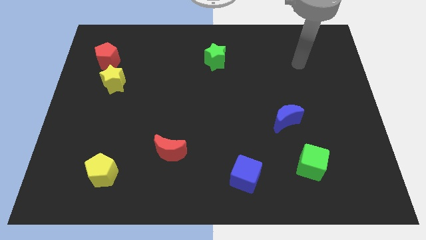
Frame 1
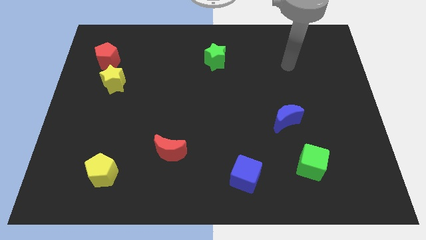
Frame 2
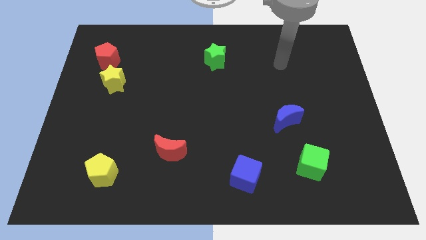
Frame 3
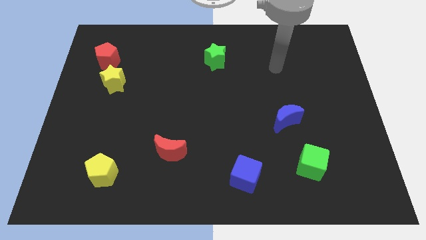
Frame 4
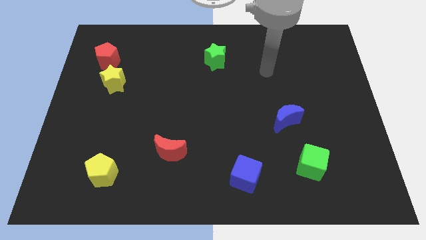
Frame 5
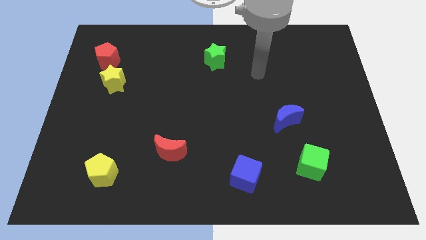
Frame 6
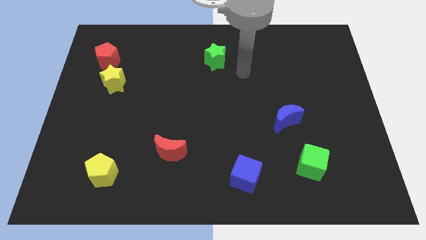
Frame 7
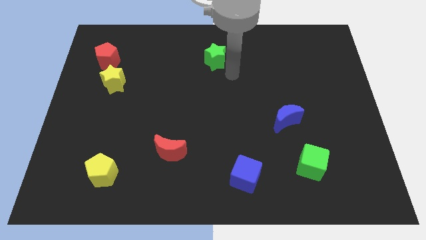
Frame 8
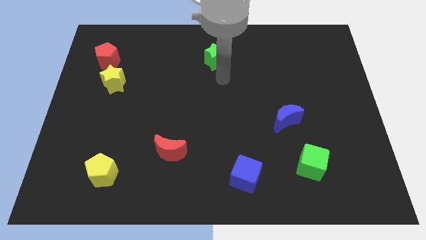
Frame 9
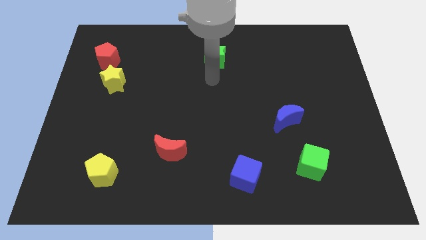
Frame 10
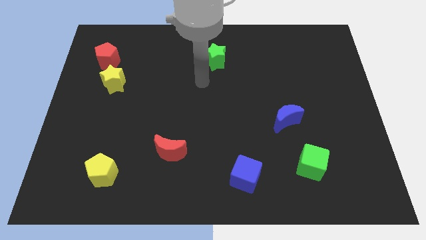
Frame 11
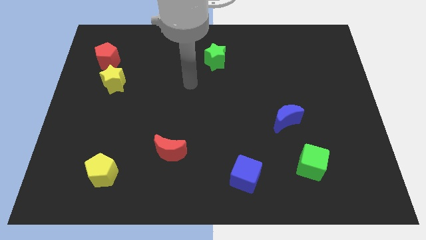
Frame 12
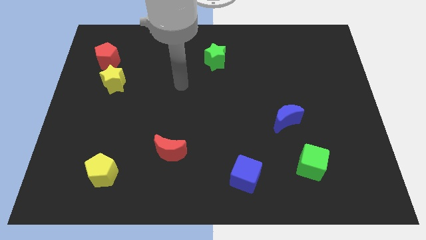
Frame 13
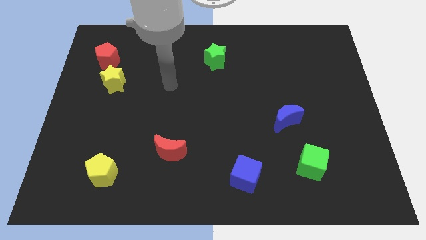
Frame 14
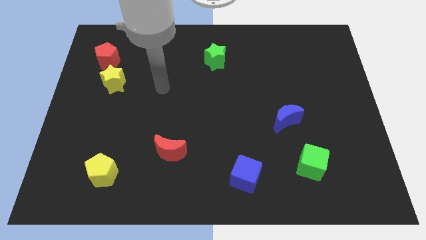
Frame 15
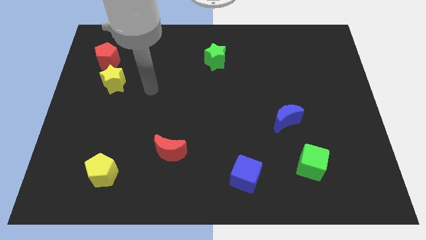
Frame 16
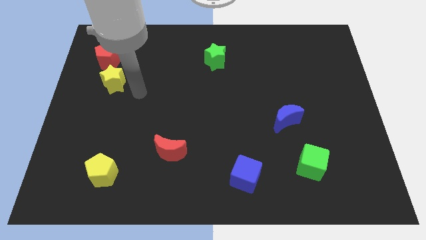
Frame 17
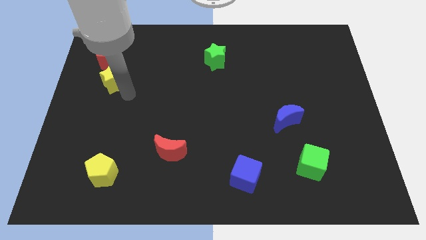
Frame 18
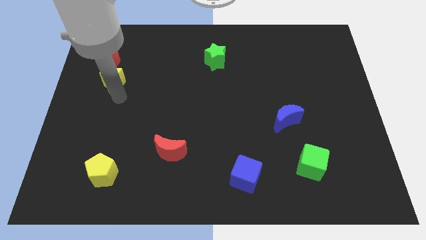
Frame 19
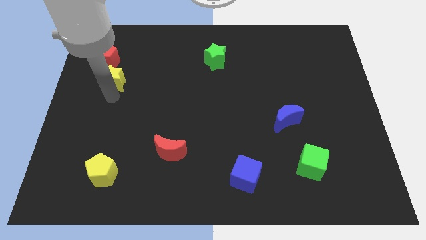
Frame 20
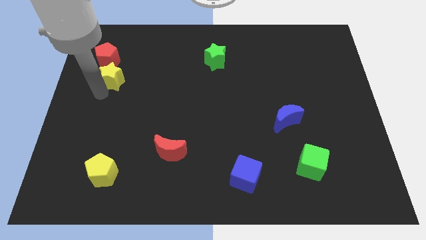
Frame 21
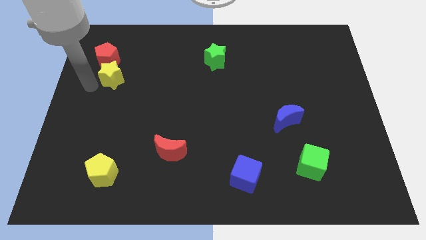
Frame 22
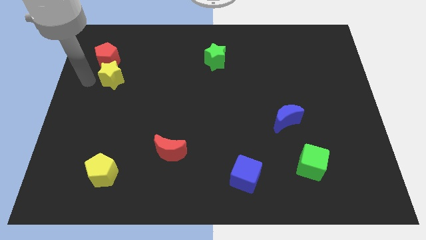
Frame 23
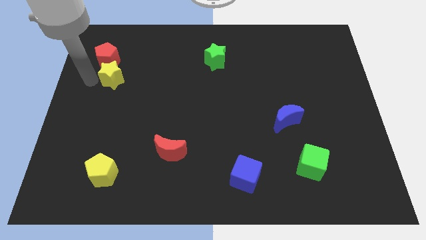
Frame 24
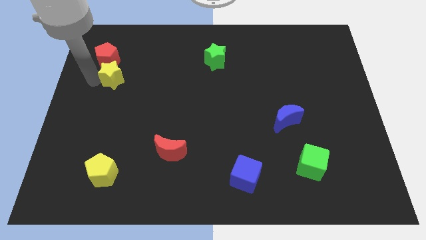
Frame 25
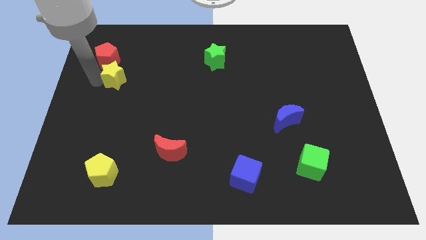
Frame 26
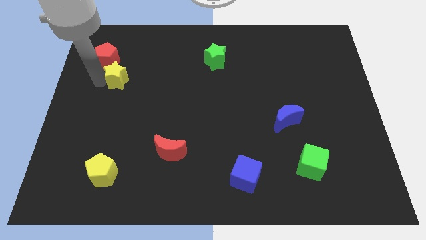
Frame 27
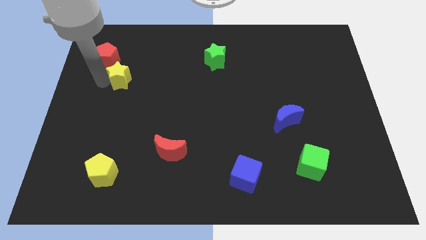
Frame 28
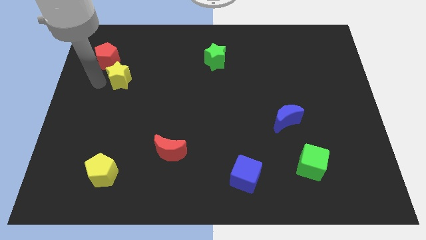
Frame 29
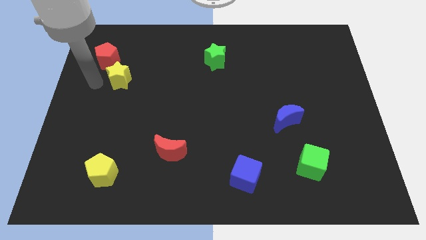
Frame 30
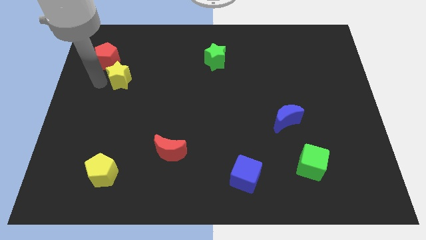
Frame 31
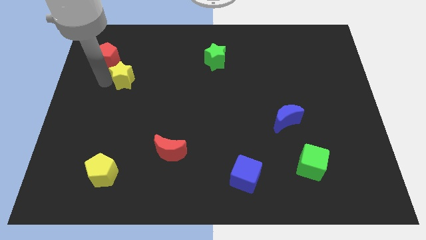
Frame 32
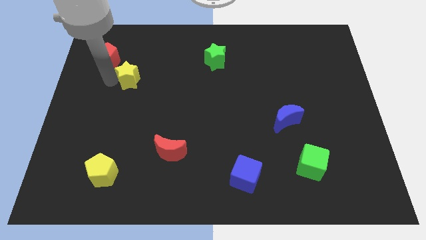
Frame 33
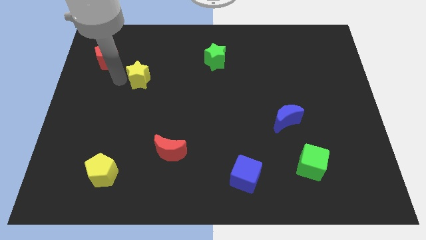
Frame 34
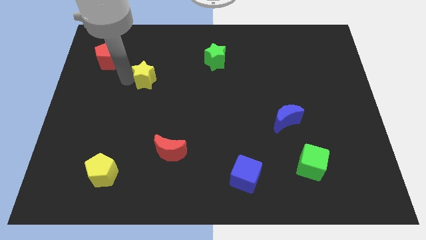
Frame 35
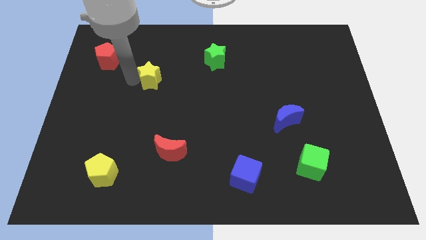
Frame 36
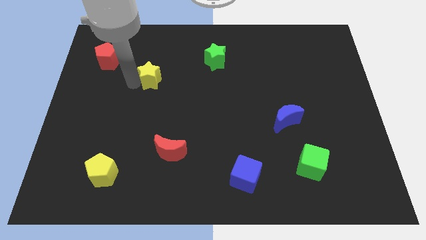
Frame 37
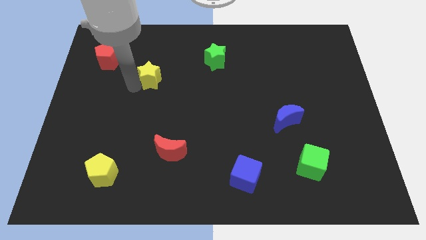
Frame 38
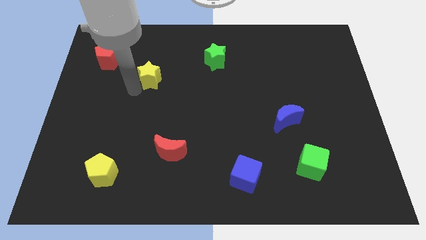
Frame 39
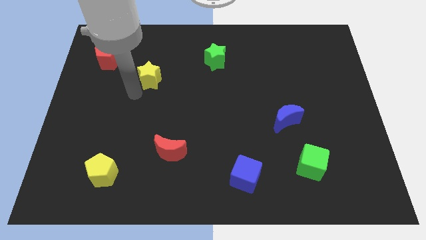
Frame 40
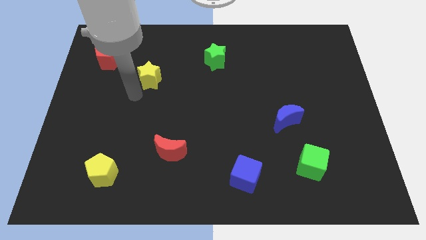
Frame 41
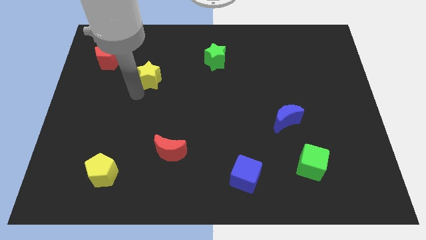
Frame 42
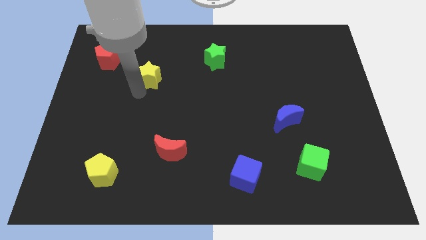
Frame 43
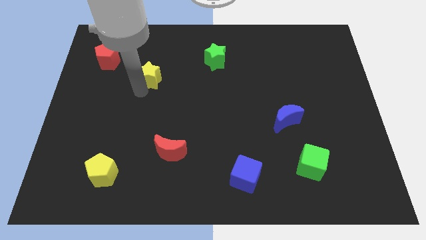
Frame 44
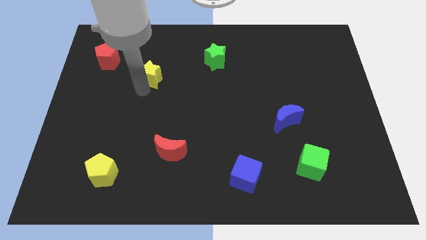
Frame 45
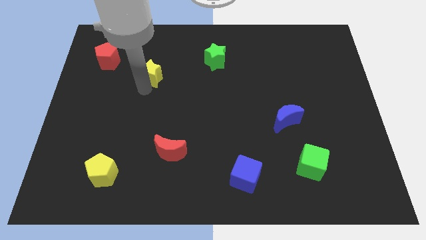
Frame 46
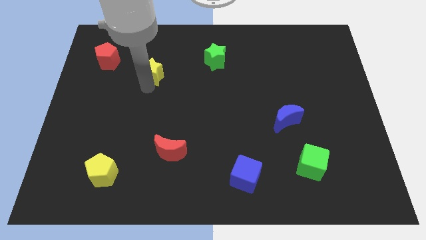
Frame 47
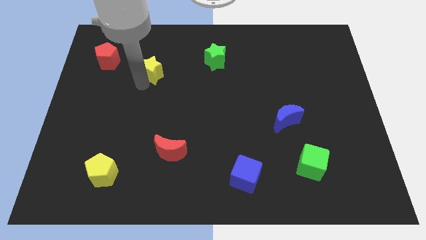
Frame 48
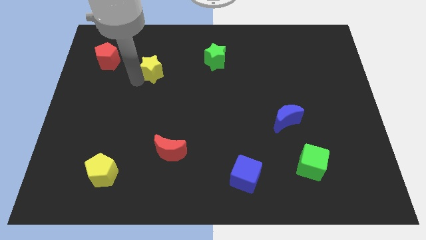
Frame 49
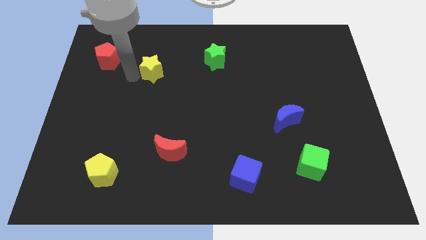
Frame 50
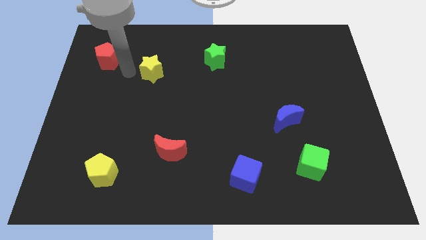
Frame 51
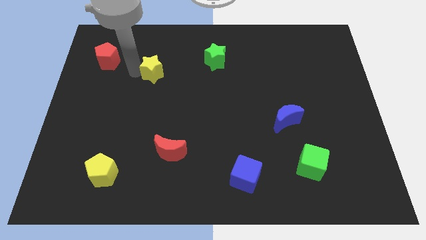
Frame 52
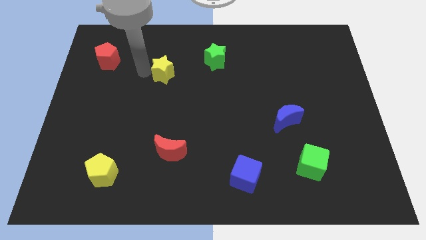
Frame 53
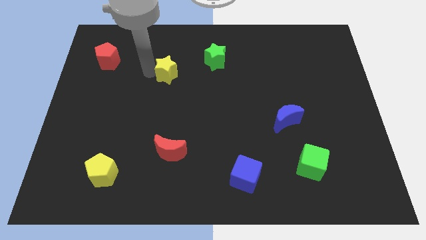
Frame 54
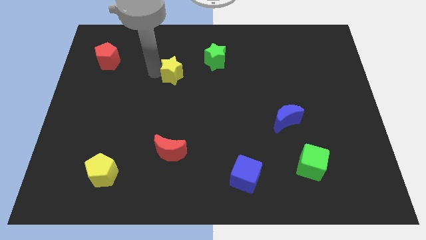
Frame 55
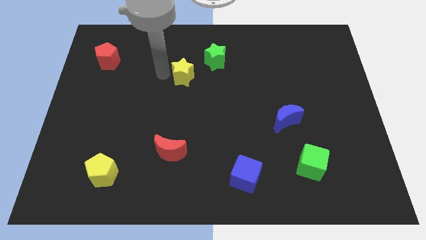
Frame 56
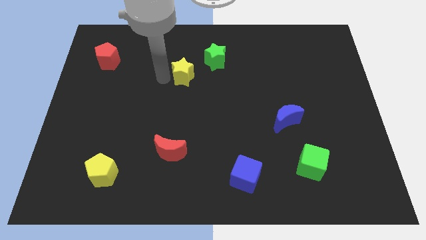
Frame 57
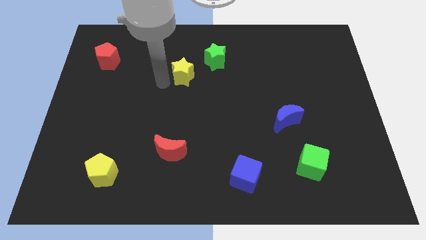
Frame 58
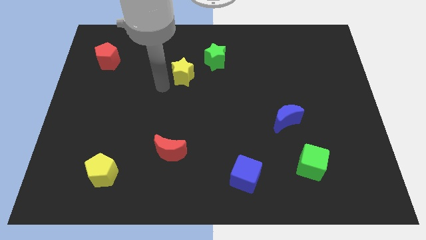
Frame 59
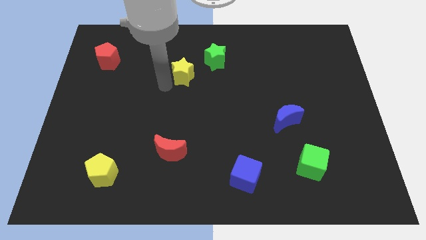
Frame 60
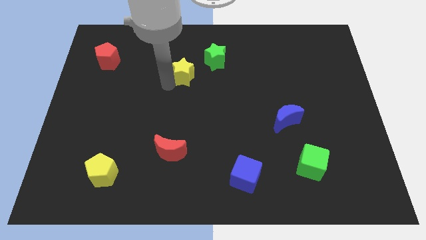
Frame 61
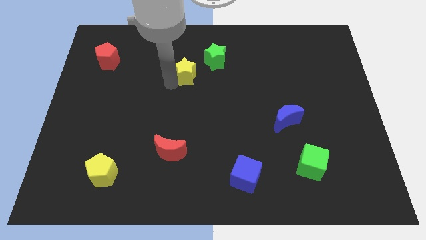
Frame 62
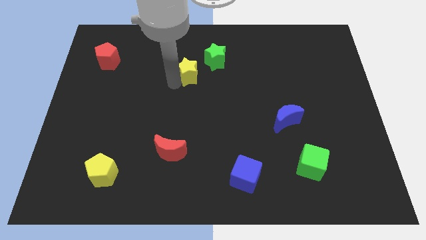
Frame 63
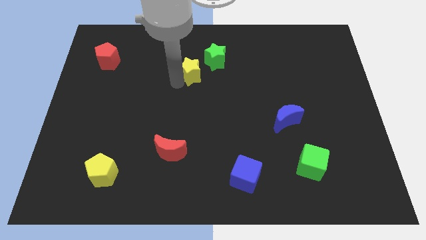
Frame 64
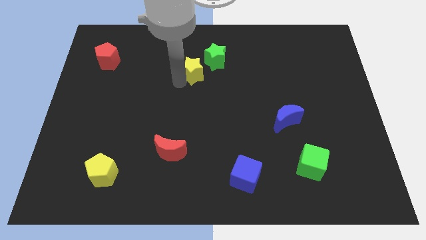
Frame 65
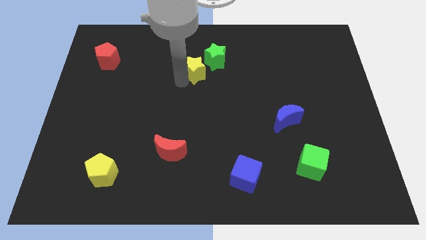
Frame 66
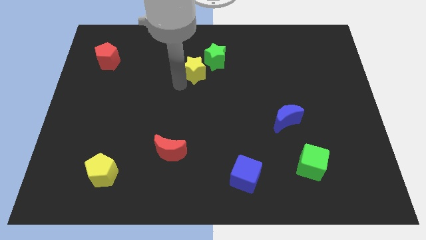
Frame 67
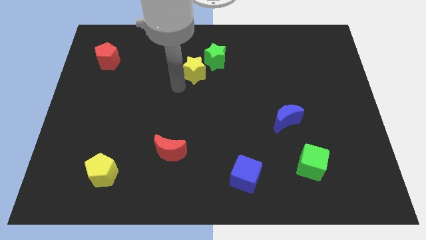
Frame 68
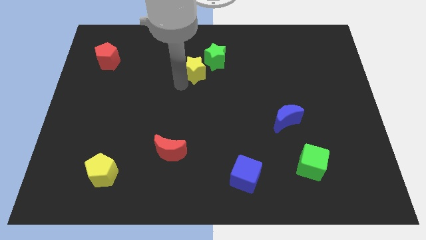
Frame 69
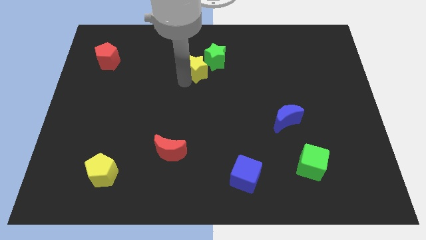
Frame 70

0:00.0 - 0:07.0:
slide the yellow star next to the green star
